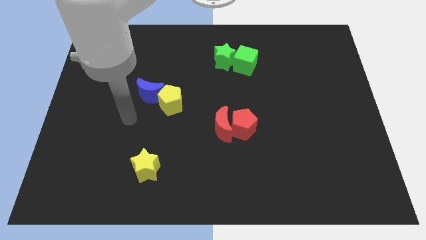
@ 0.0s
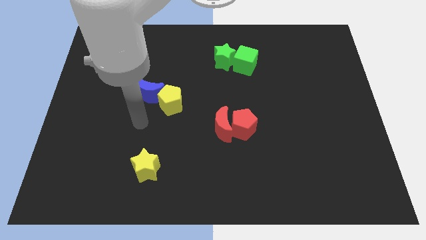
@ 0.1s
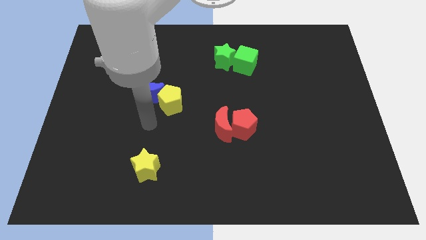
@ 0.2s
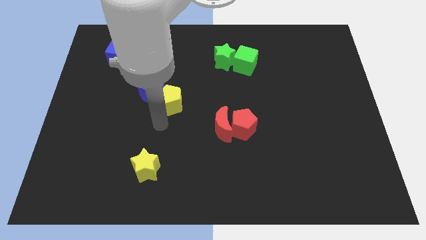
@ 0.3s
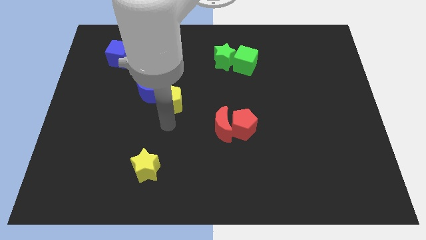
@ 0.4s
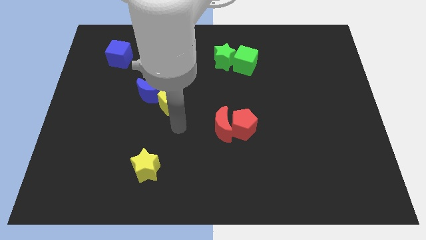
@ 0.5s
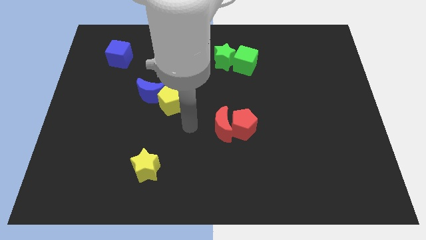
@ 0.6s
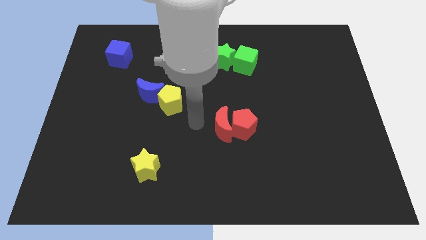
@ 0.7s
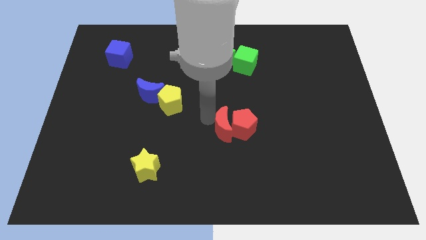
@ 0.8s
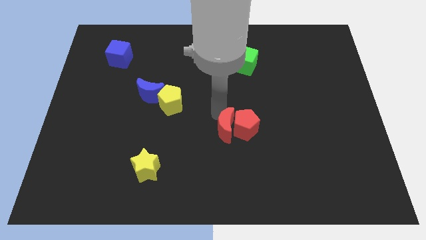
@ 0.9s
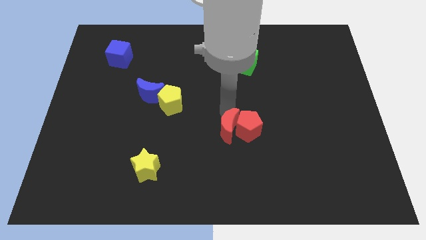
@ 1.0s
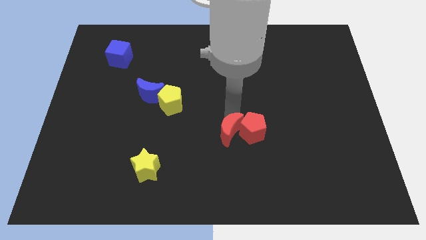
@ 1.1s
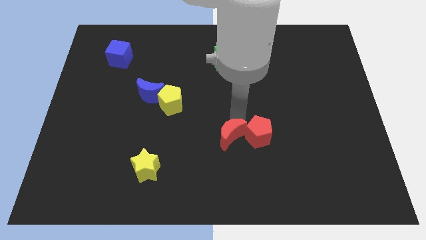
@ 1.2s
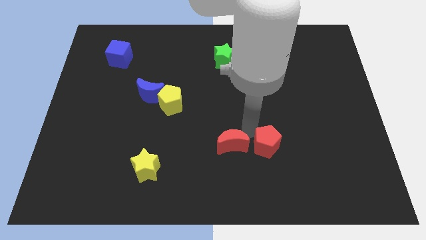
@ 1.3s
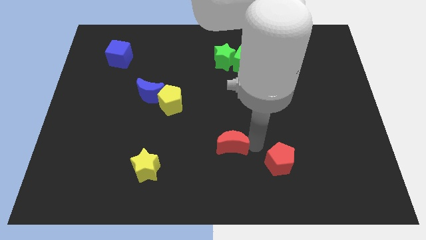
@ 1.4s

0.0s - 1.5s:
move the red moon away from the red pentagon

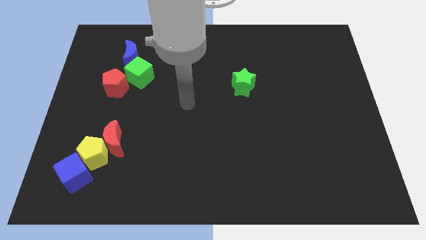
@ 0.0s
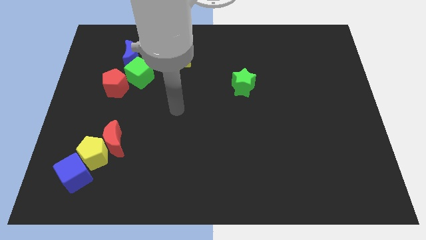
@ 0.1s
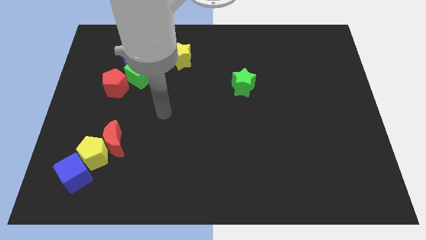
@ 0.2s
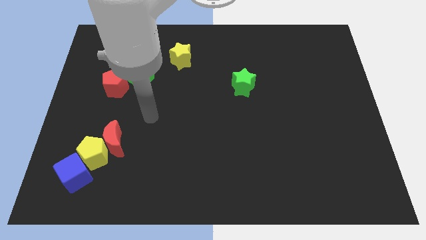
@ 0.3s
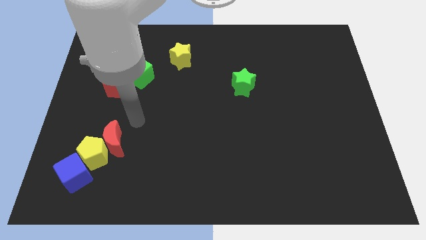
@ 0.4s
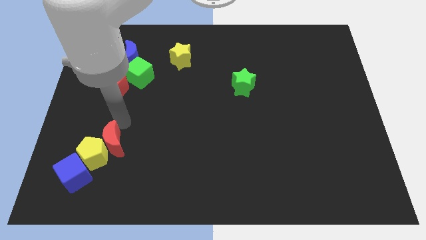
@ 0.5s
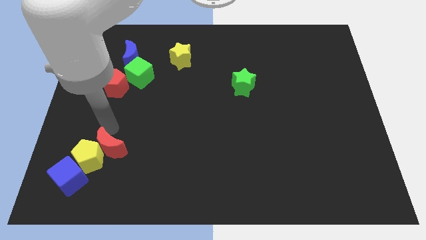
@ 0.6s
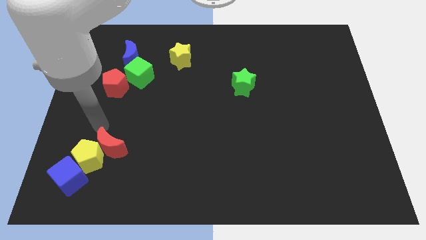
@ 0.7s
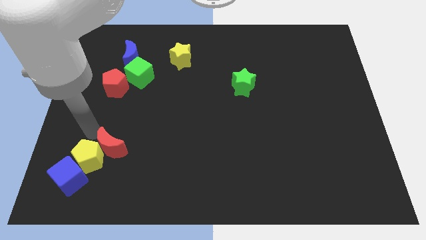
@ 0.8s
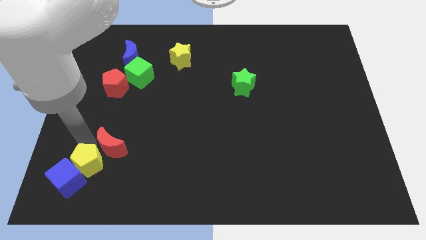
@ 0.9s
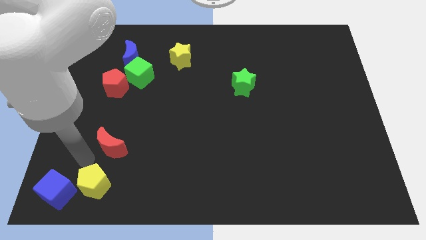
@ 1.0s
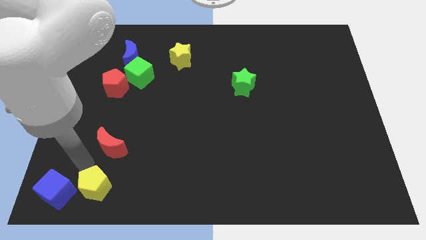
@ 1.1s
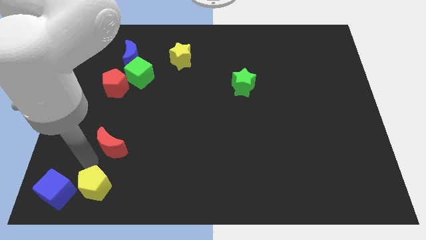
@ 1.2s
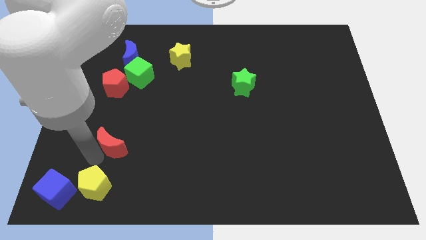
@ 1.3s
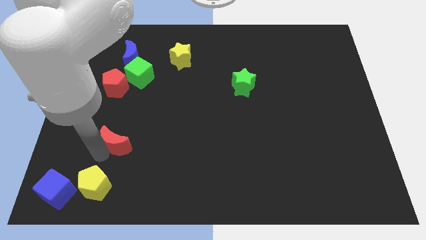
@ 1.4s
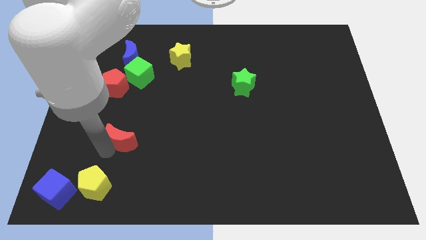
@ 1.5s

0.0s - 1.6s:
move the red moon away from the yellow pentagon

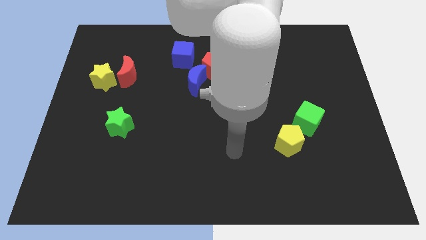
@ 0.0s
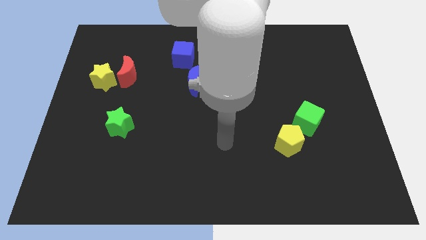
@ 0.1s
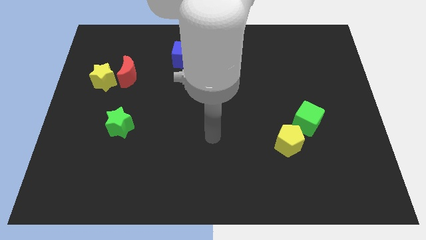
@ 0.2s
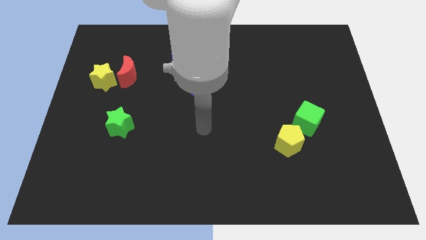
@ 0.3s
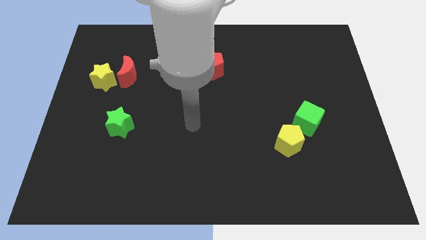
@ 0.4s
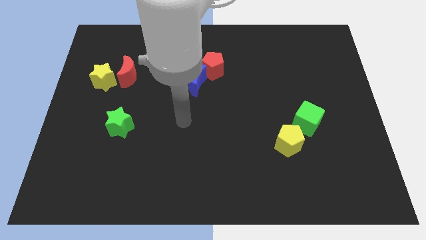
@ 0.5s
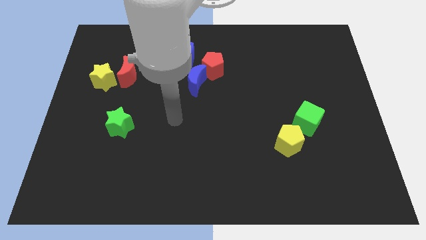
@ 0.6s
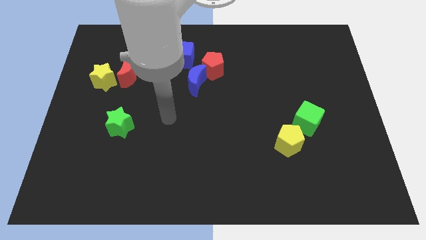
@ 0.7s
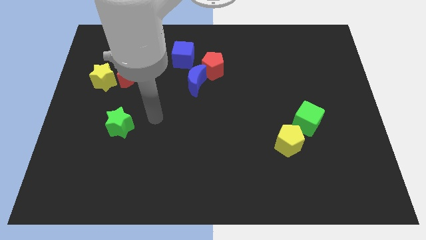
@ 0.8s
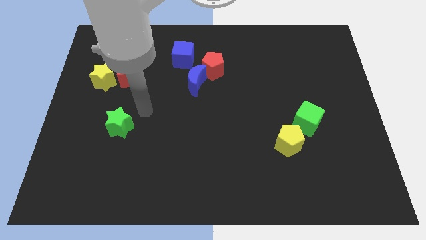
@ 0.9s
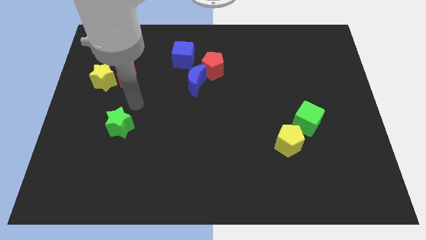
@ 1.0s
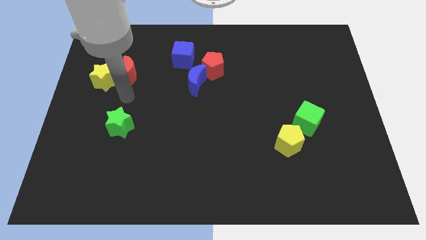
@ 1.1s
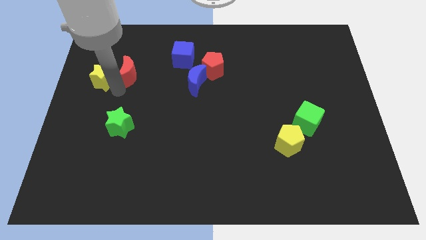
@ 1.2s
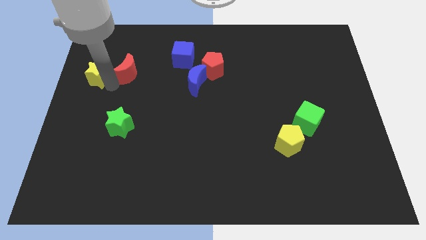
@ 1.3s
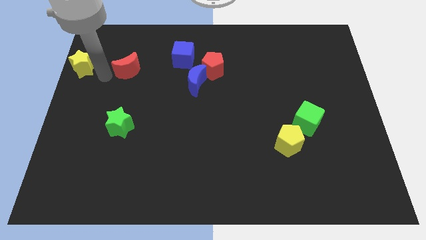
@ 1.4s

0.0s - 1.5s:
separate the red moon from the yellow star

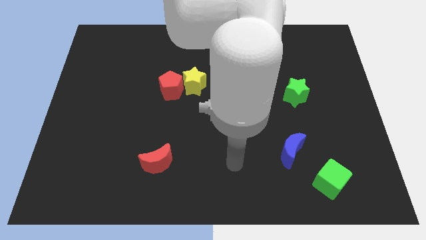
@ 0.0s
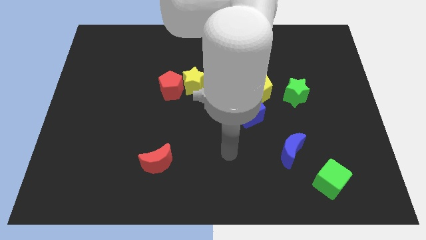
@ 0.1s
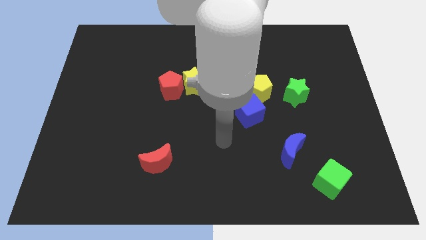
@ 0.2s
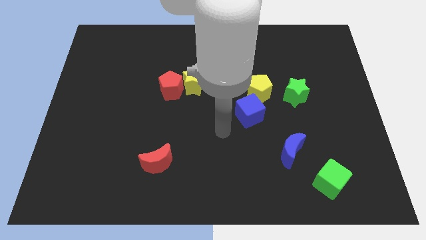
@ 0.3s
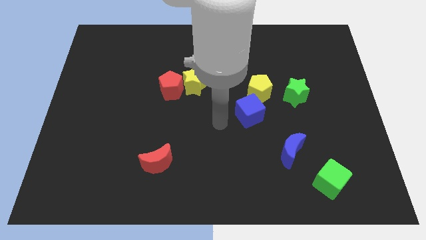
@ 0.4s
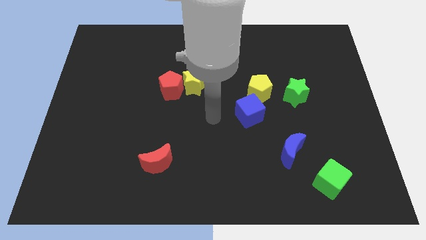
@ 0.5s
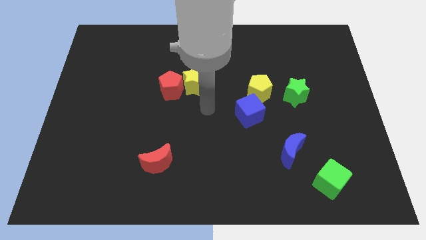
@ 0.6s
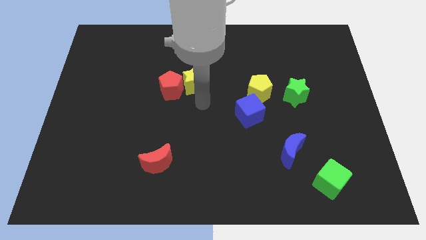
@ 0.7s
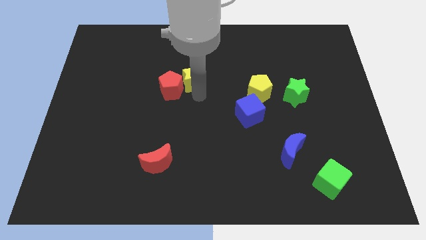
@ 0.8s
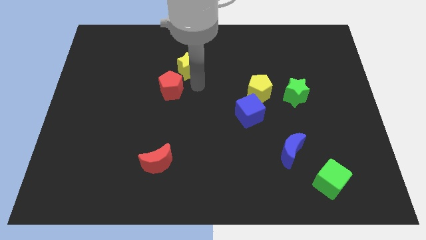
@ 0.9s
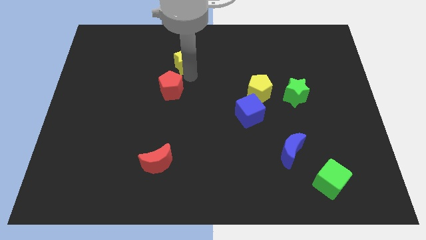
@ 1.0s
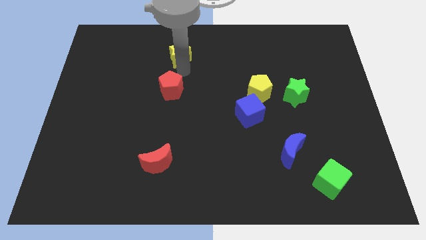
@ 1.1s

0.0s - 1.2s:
pull the red pentagon apart from the yellow star

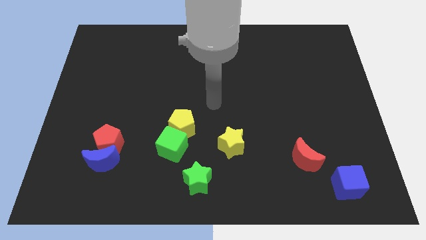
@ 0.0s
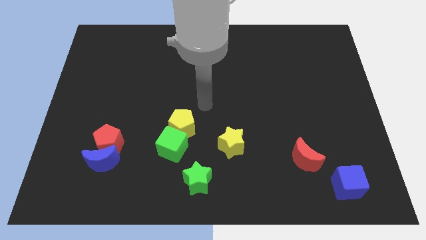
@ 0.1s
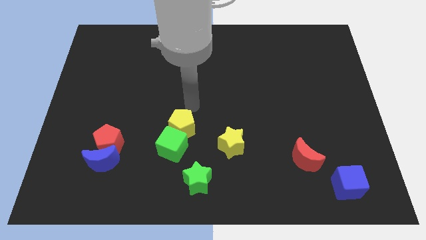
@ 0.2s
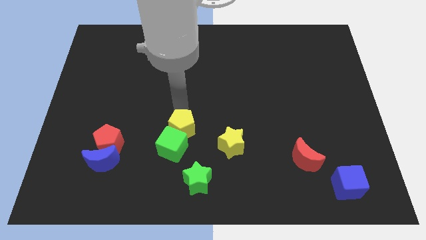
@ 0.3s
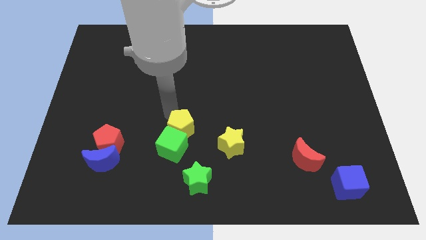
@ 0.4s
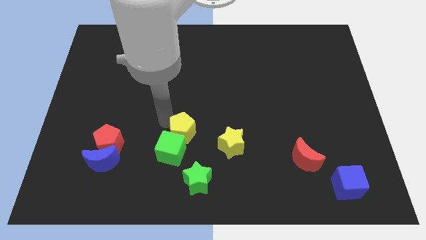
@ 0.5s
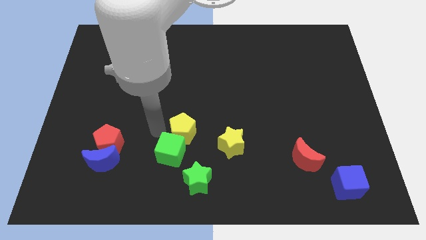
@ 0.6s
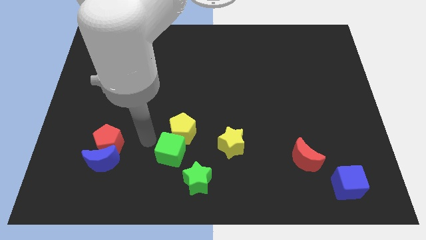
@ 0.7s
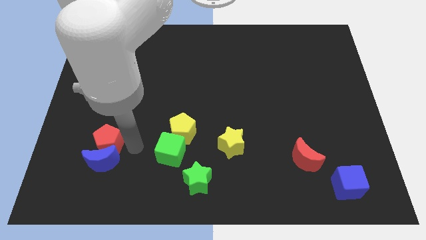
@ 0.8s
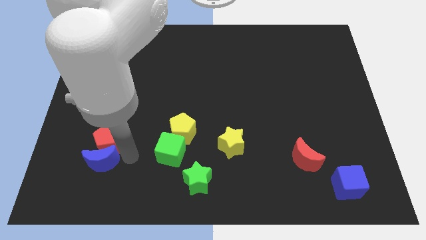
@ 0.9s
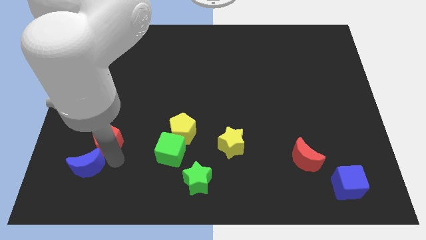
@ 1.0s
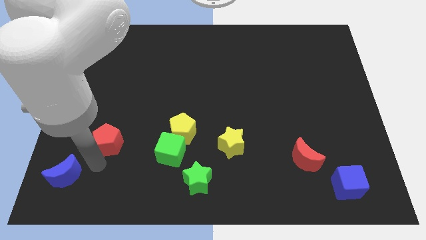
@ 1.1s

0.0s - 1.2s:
separate the red pentagon from the blue moon

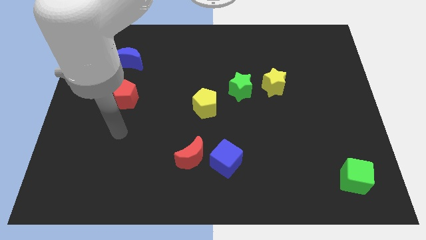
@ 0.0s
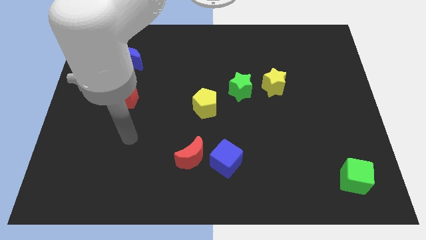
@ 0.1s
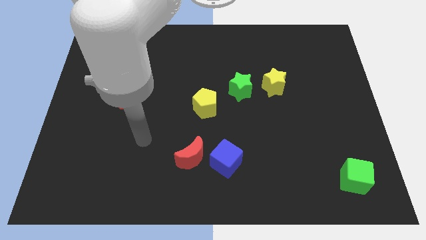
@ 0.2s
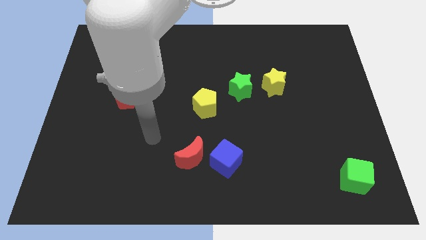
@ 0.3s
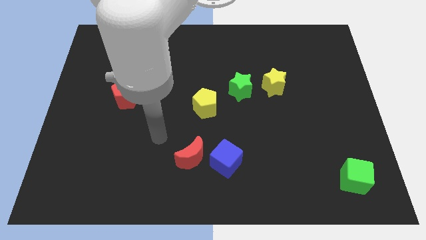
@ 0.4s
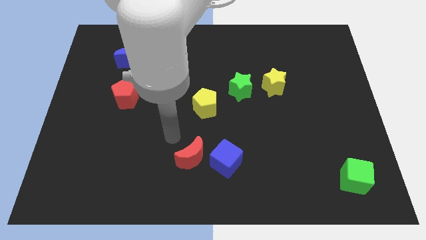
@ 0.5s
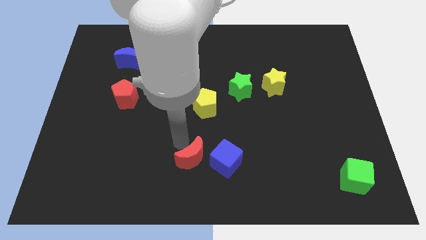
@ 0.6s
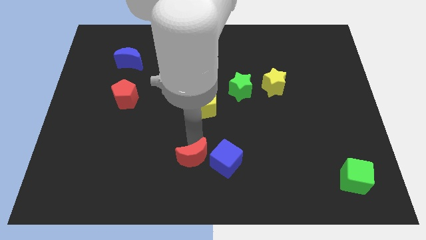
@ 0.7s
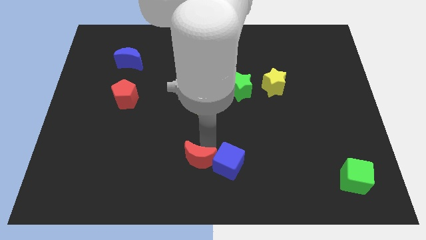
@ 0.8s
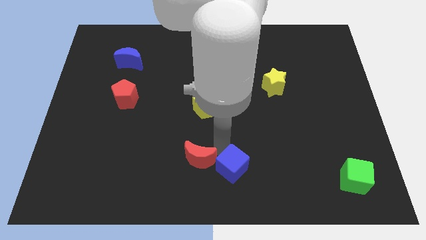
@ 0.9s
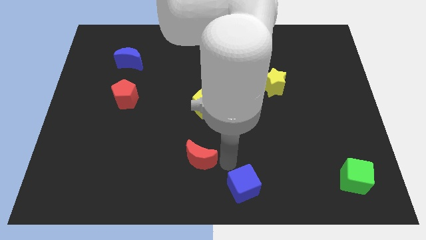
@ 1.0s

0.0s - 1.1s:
pull the red moon apart from the blue cube

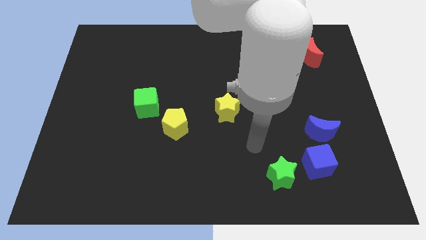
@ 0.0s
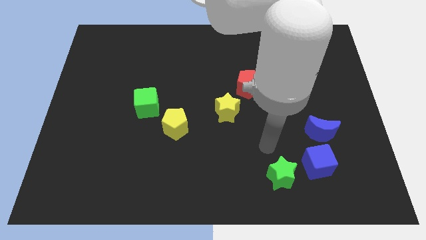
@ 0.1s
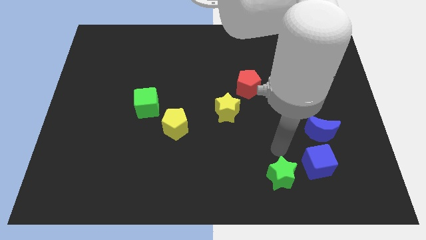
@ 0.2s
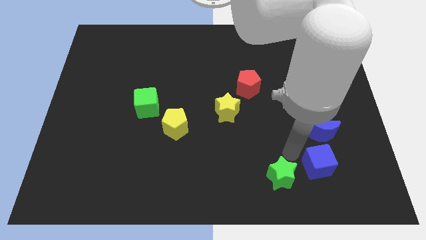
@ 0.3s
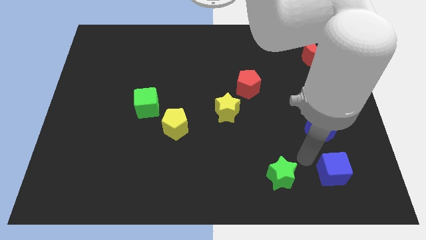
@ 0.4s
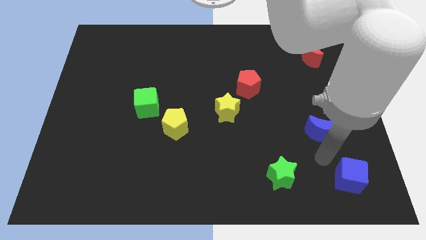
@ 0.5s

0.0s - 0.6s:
pull the blue moon apart from the blue cube

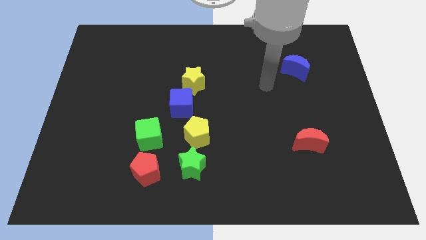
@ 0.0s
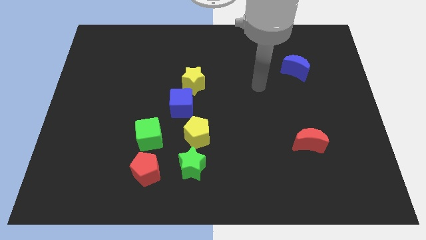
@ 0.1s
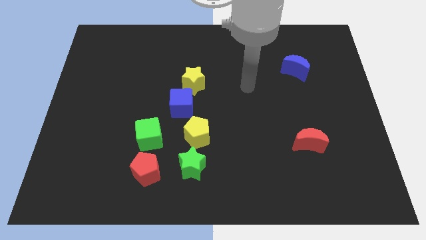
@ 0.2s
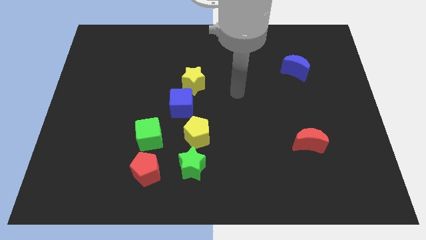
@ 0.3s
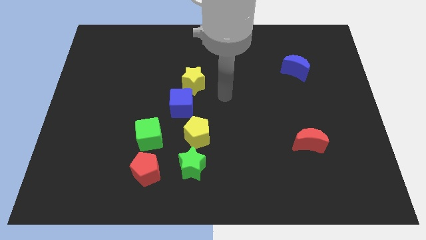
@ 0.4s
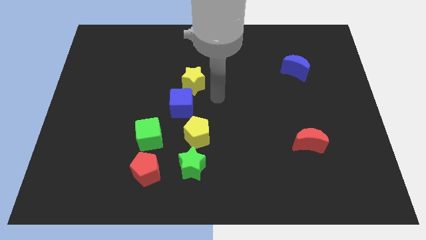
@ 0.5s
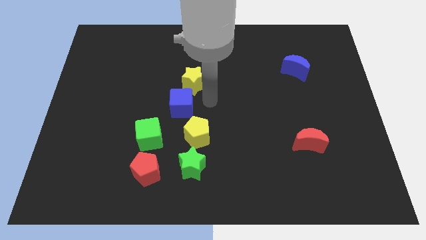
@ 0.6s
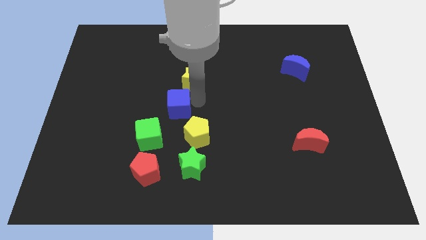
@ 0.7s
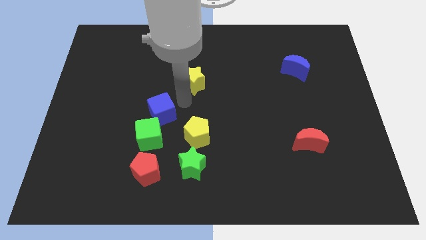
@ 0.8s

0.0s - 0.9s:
move the yellow star away from the blue cube
